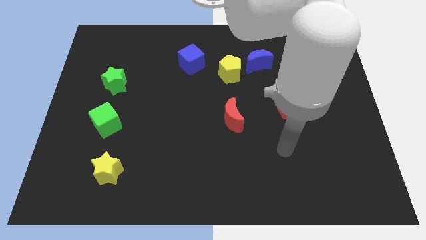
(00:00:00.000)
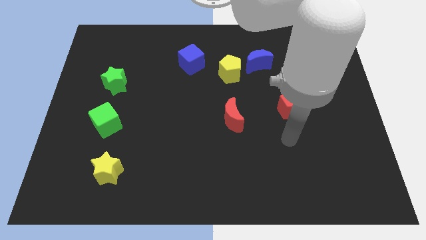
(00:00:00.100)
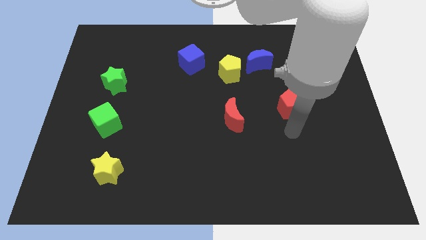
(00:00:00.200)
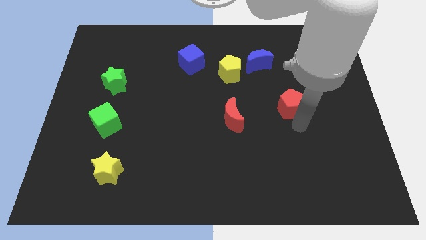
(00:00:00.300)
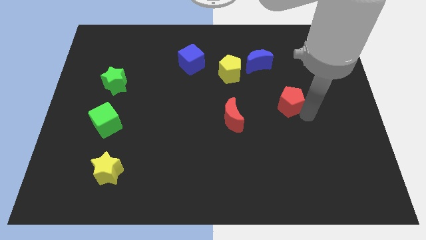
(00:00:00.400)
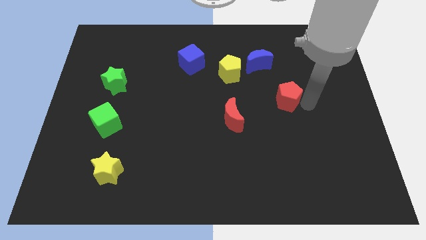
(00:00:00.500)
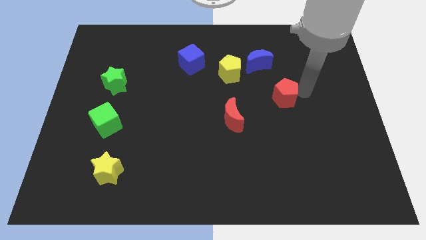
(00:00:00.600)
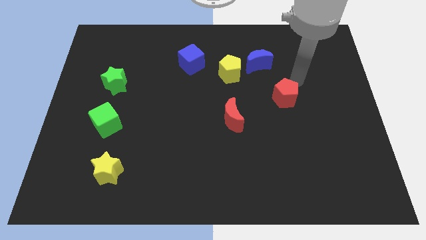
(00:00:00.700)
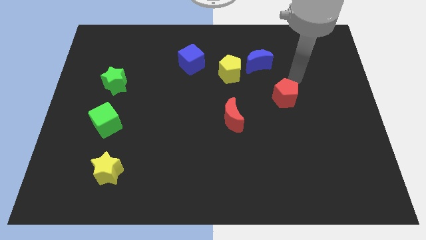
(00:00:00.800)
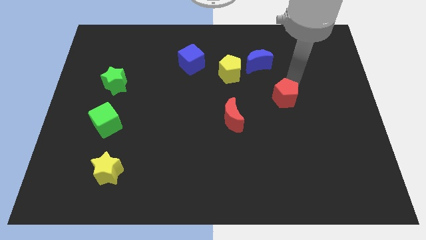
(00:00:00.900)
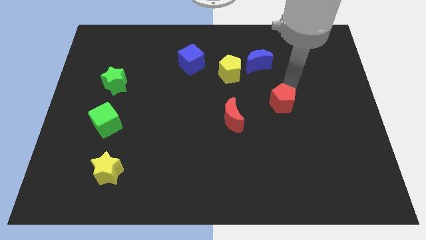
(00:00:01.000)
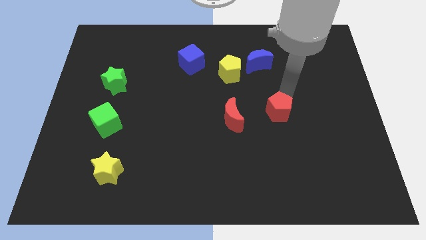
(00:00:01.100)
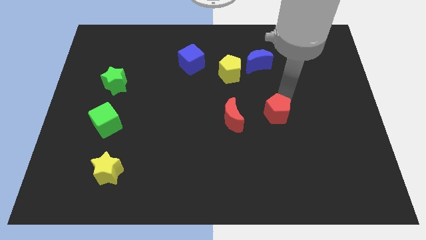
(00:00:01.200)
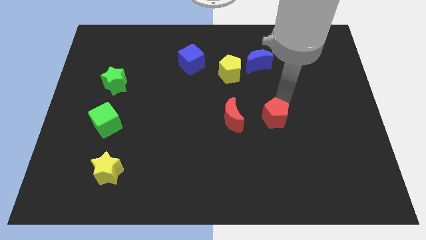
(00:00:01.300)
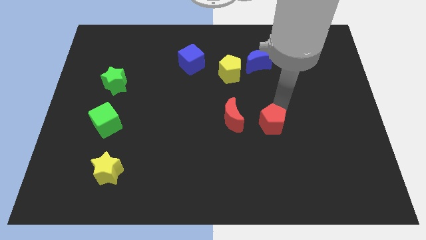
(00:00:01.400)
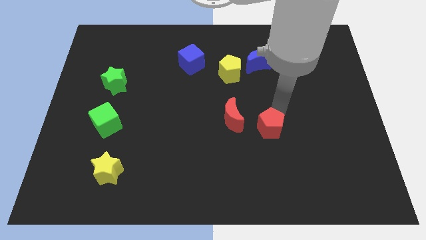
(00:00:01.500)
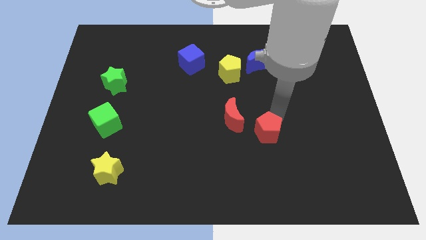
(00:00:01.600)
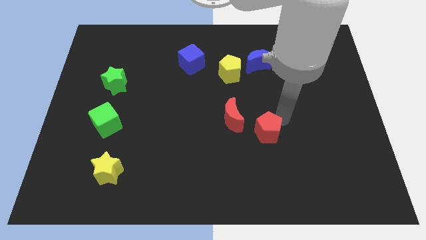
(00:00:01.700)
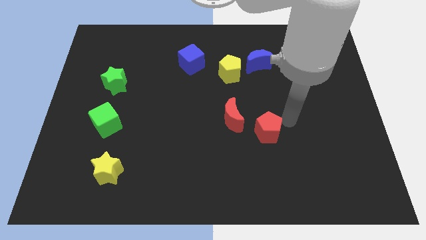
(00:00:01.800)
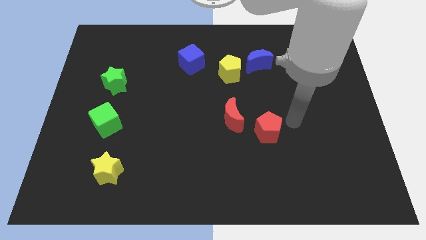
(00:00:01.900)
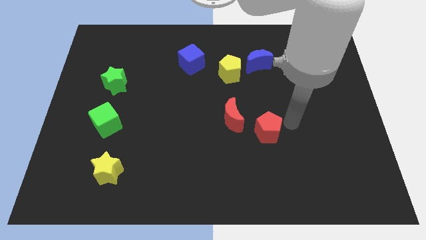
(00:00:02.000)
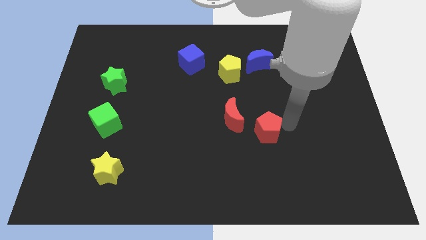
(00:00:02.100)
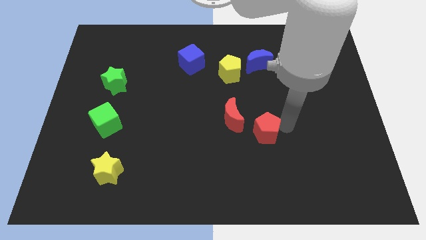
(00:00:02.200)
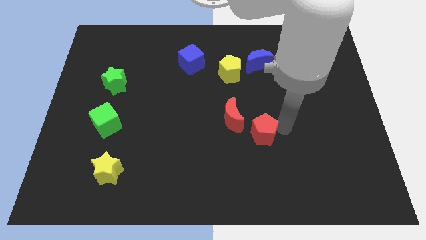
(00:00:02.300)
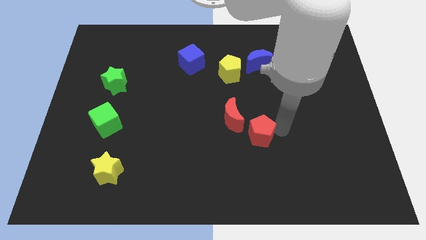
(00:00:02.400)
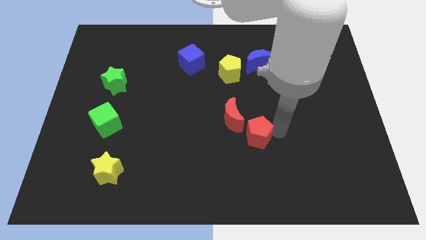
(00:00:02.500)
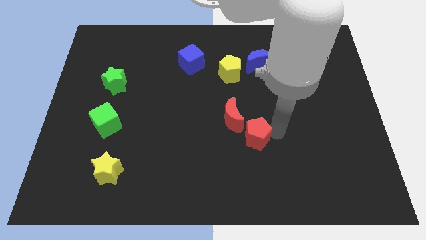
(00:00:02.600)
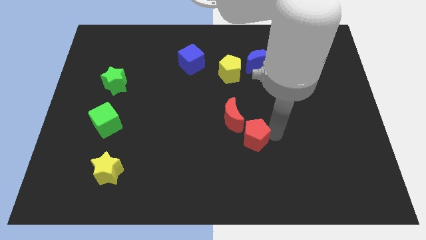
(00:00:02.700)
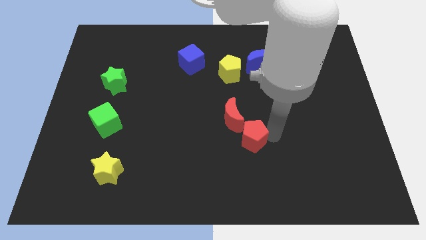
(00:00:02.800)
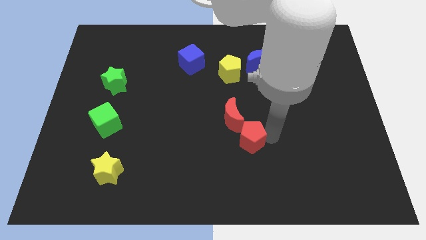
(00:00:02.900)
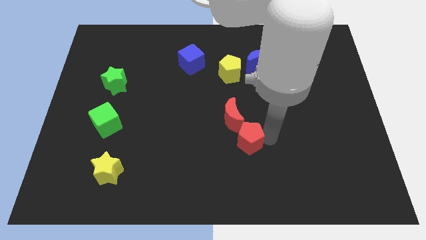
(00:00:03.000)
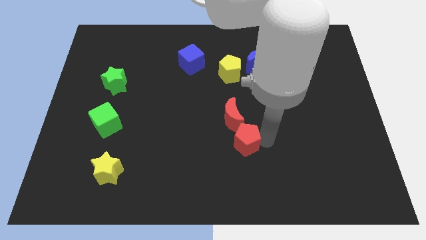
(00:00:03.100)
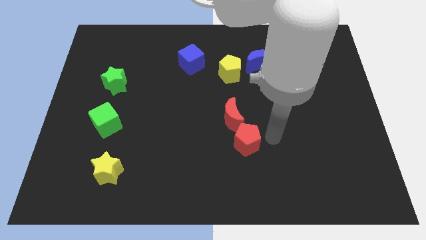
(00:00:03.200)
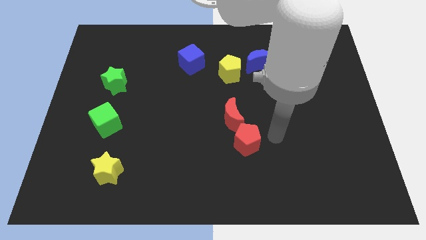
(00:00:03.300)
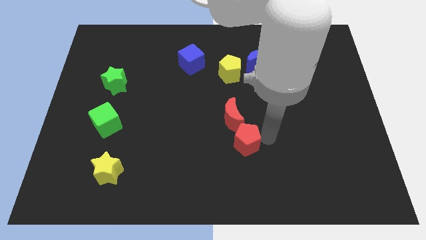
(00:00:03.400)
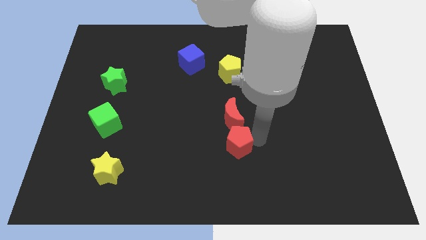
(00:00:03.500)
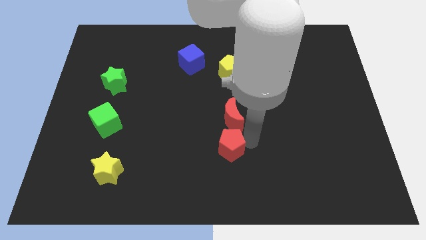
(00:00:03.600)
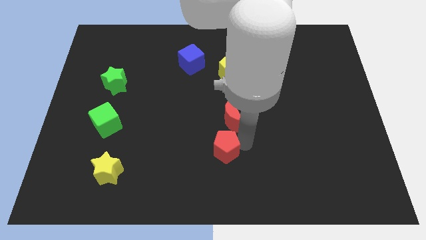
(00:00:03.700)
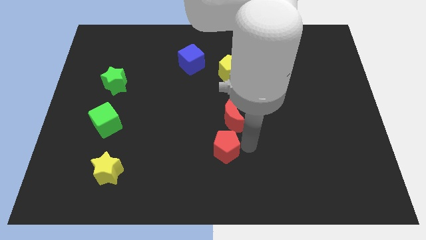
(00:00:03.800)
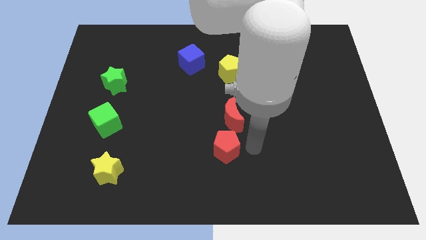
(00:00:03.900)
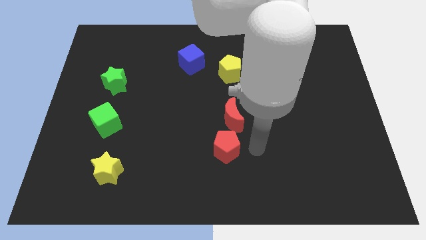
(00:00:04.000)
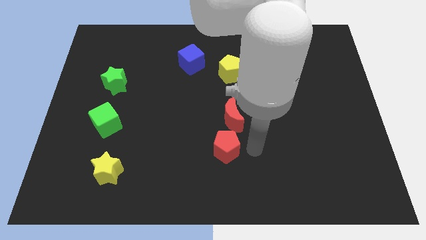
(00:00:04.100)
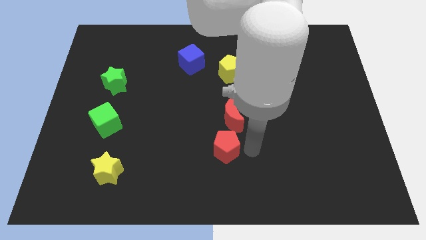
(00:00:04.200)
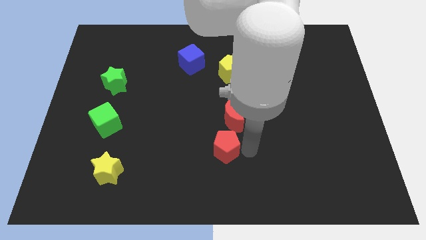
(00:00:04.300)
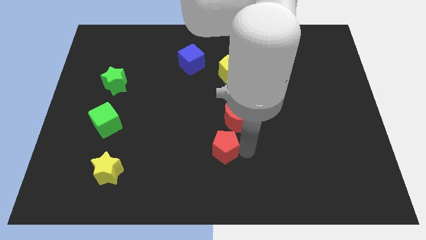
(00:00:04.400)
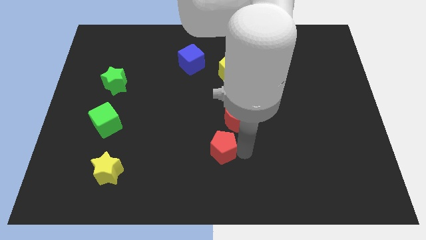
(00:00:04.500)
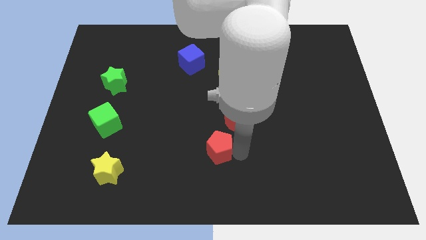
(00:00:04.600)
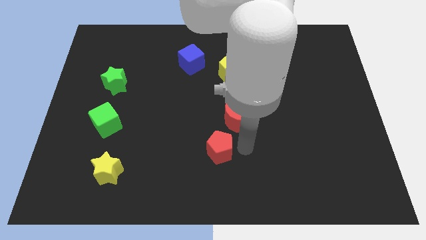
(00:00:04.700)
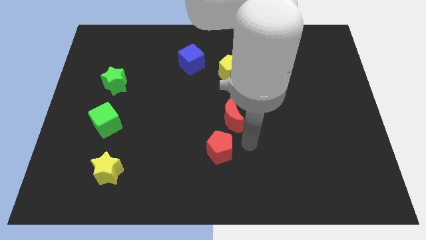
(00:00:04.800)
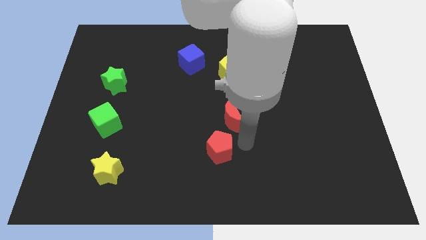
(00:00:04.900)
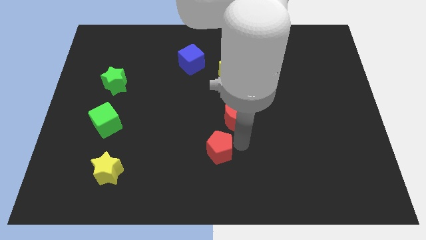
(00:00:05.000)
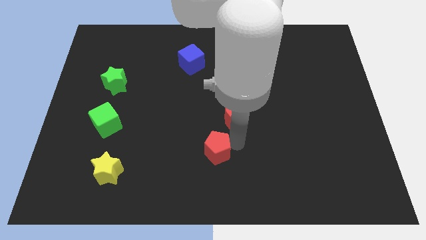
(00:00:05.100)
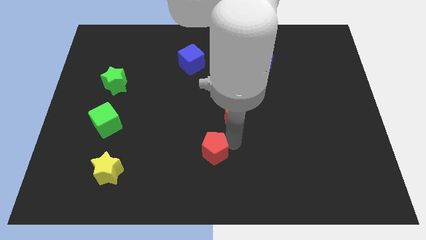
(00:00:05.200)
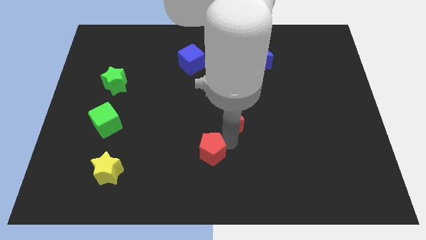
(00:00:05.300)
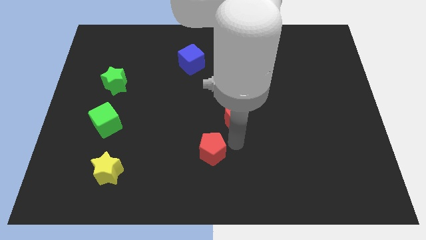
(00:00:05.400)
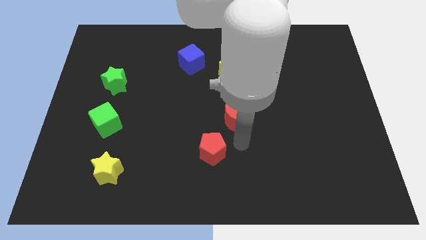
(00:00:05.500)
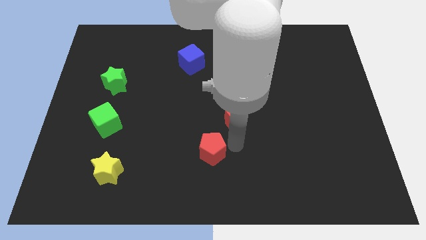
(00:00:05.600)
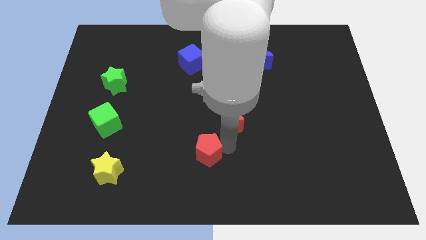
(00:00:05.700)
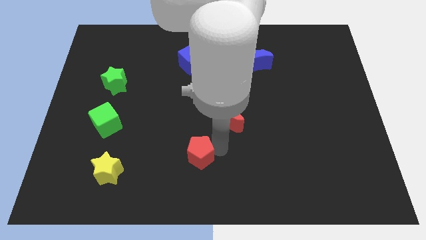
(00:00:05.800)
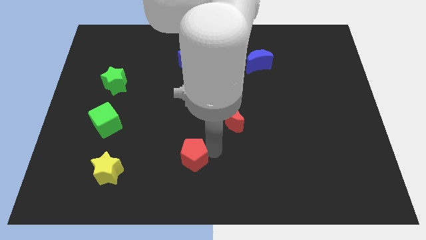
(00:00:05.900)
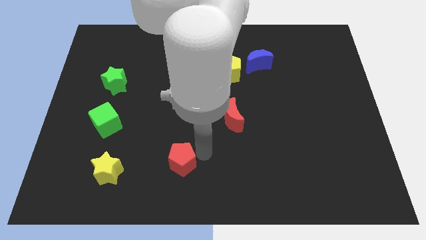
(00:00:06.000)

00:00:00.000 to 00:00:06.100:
move the red pentagon just right of the yellow star

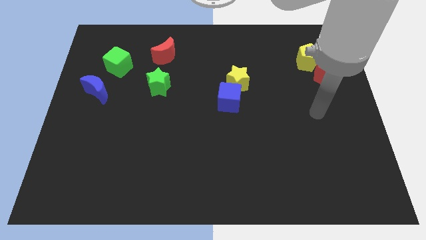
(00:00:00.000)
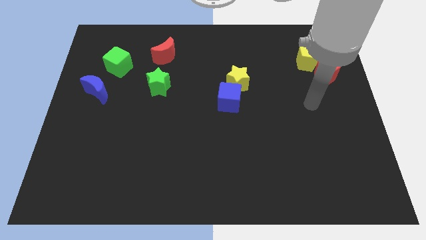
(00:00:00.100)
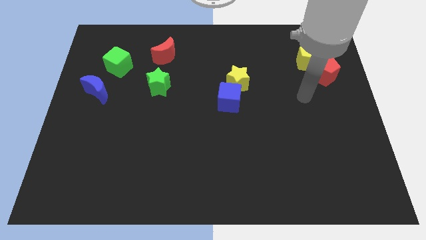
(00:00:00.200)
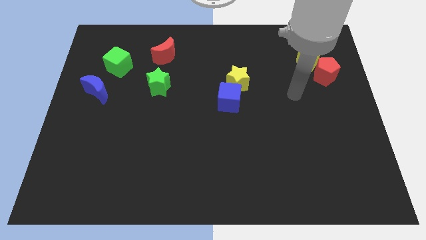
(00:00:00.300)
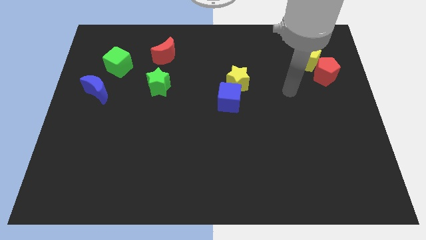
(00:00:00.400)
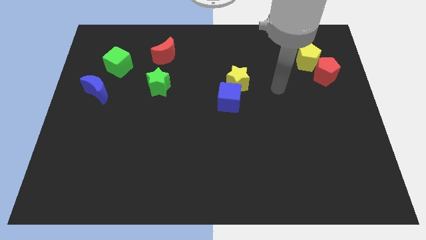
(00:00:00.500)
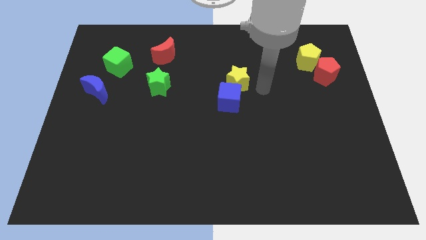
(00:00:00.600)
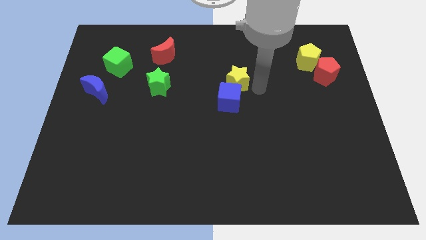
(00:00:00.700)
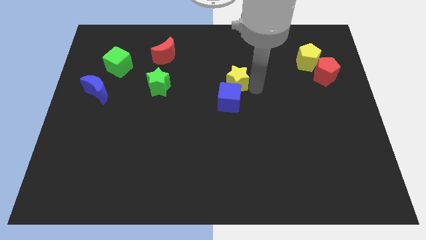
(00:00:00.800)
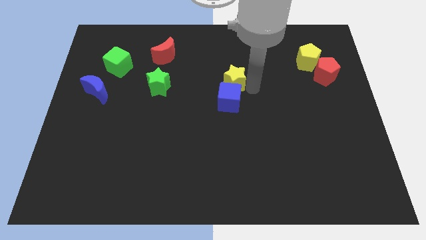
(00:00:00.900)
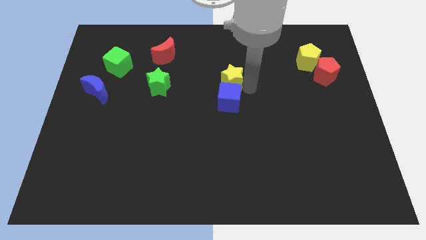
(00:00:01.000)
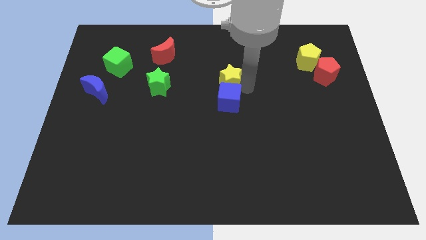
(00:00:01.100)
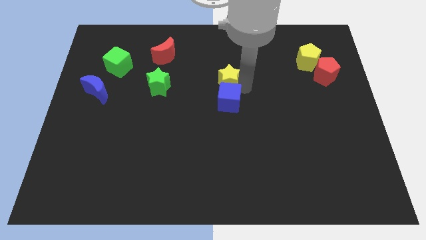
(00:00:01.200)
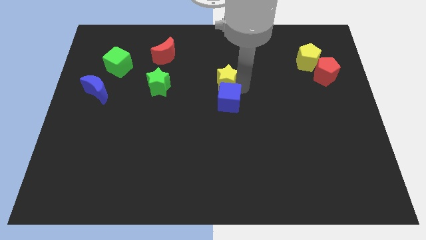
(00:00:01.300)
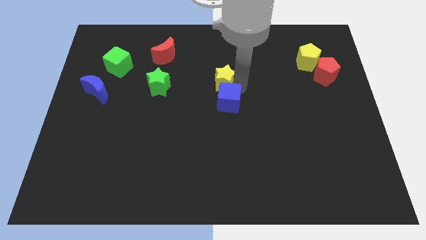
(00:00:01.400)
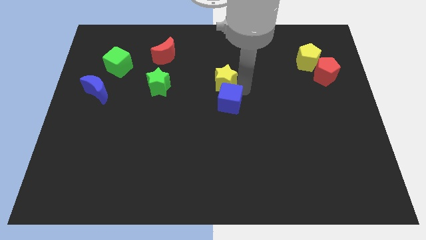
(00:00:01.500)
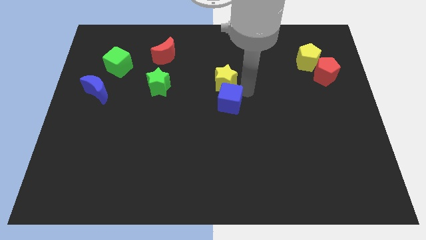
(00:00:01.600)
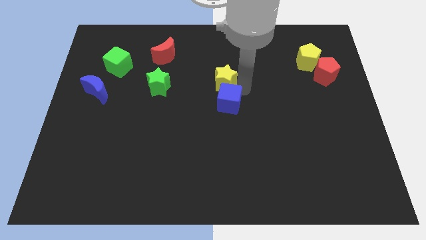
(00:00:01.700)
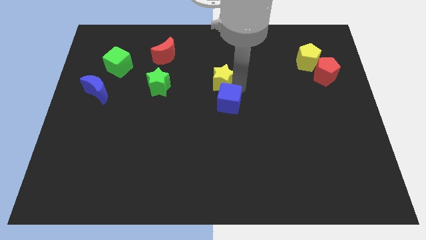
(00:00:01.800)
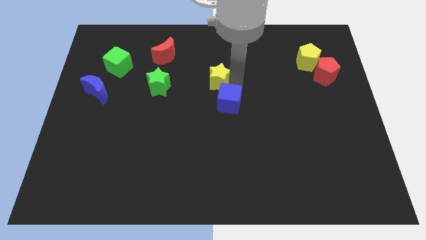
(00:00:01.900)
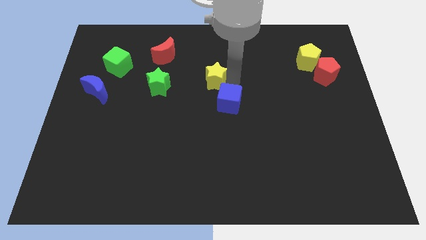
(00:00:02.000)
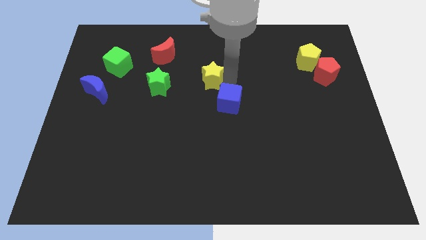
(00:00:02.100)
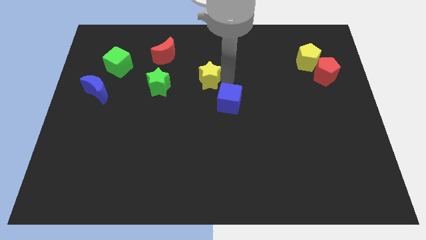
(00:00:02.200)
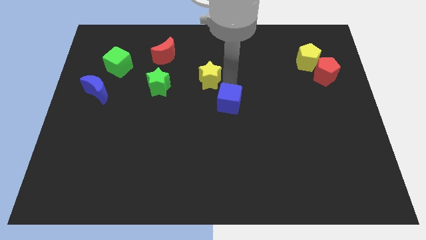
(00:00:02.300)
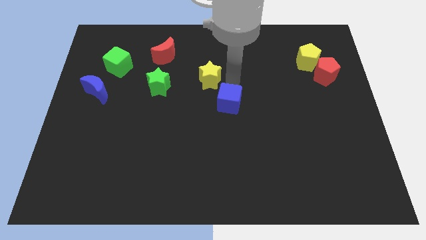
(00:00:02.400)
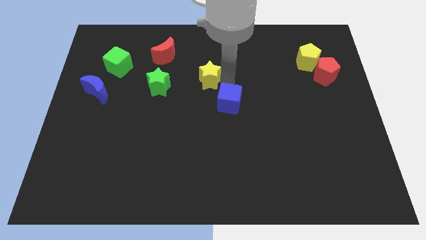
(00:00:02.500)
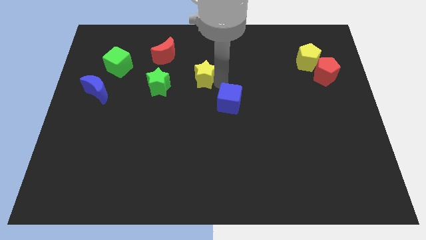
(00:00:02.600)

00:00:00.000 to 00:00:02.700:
move the yellow star to the bottom right side of the red moon
